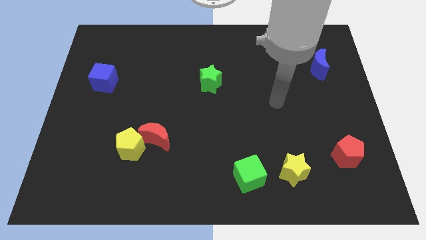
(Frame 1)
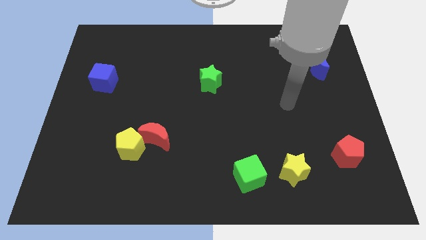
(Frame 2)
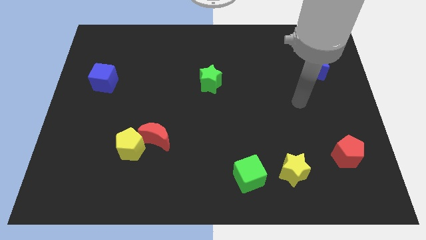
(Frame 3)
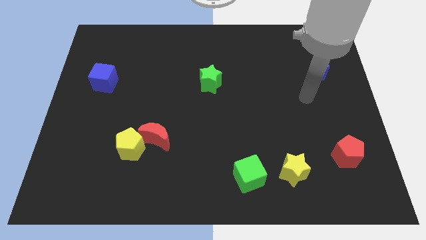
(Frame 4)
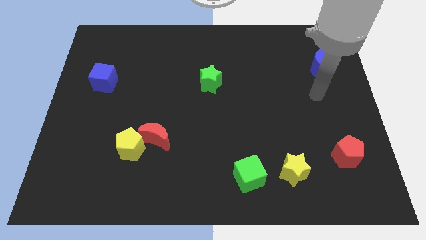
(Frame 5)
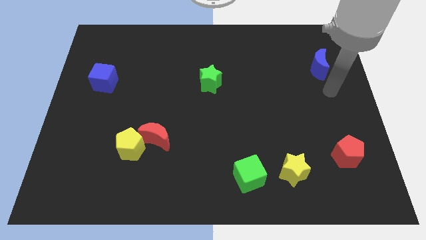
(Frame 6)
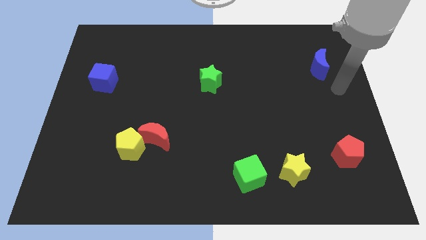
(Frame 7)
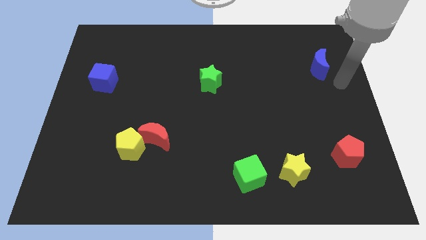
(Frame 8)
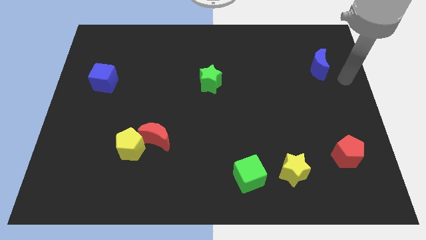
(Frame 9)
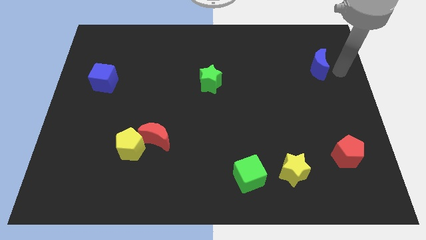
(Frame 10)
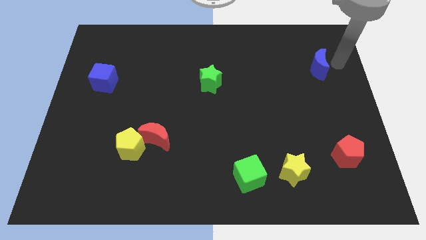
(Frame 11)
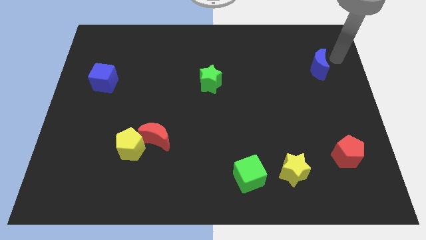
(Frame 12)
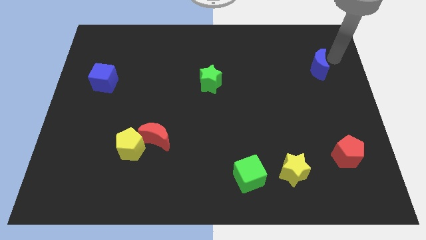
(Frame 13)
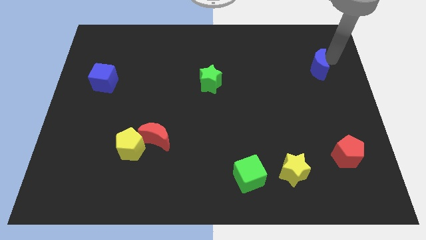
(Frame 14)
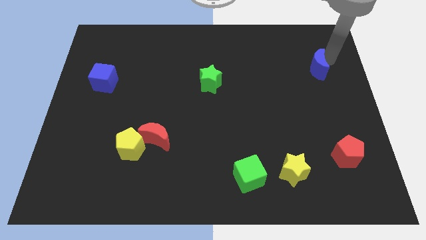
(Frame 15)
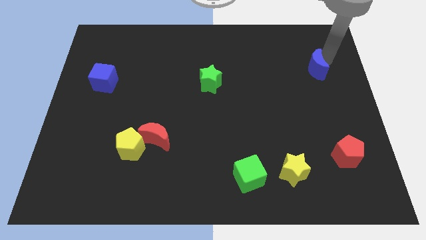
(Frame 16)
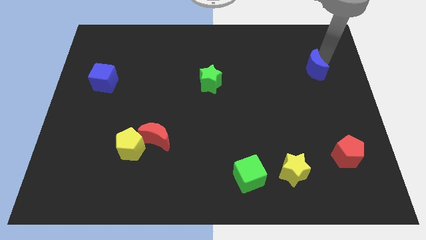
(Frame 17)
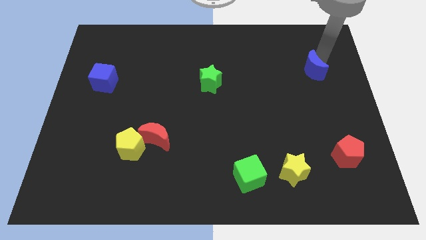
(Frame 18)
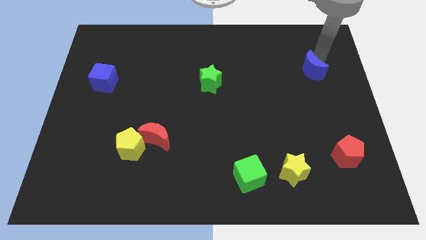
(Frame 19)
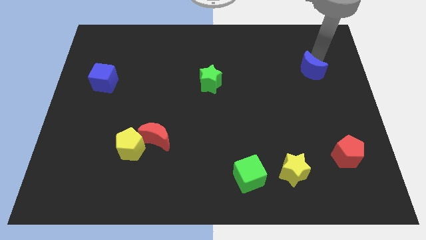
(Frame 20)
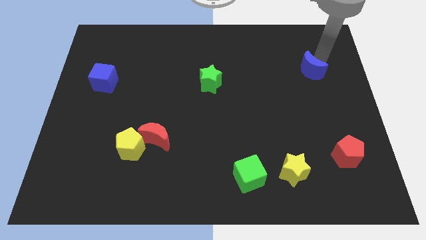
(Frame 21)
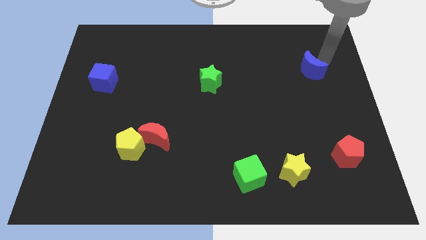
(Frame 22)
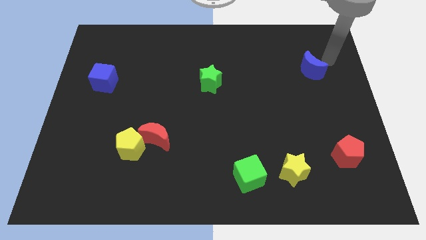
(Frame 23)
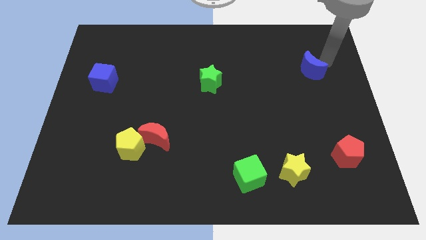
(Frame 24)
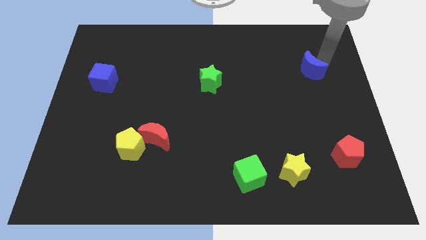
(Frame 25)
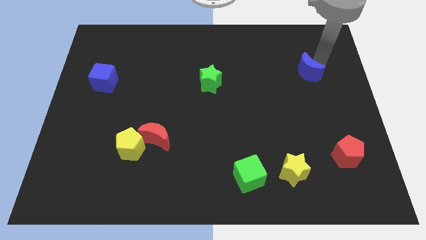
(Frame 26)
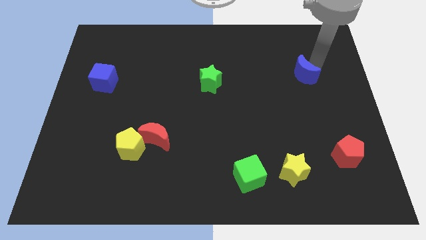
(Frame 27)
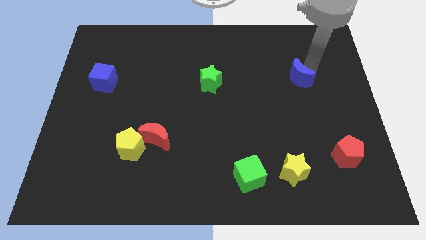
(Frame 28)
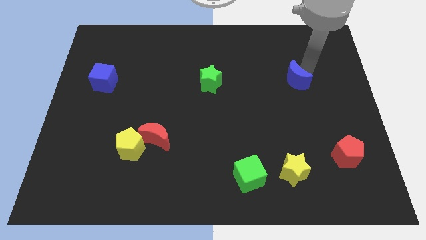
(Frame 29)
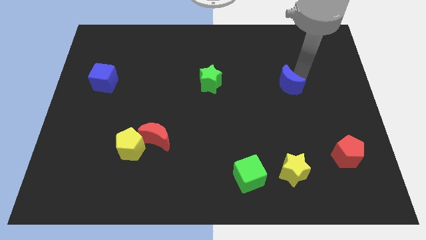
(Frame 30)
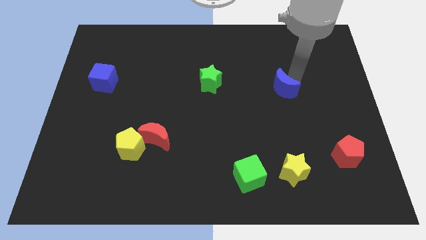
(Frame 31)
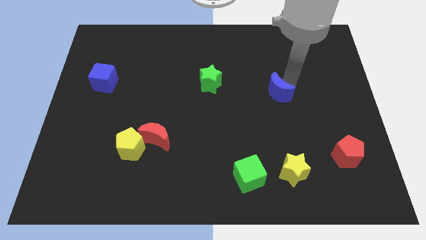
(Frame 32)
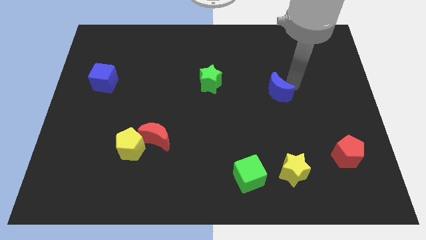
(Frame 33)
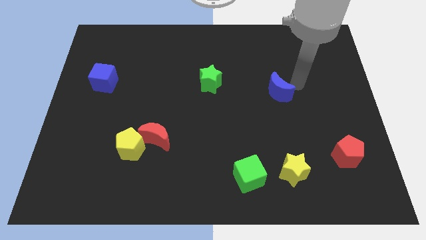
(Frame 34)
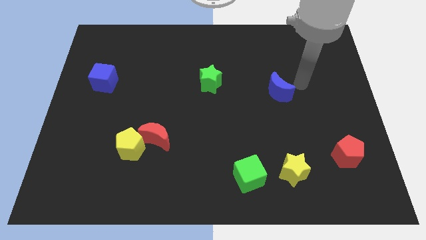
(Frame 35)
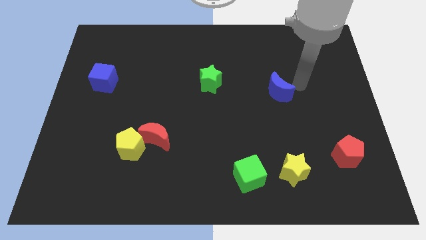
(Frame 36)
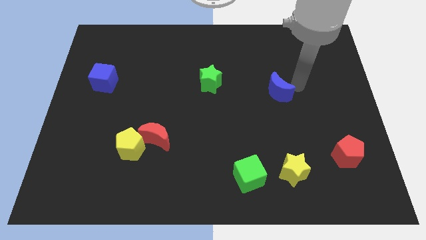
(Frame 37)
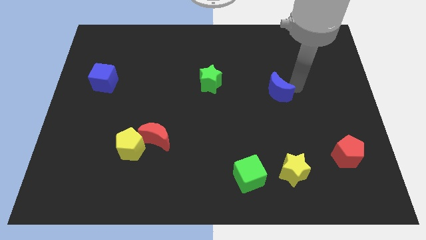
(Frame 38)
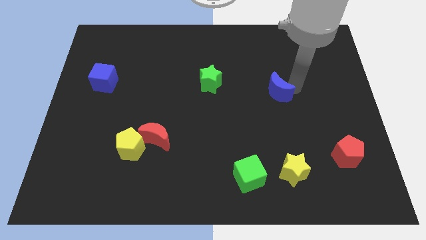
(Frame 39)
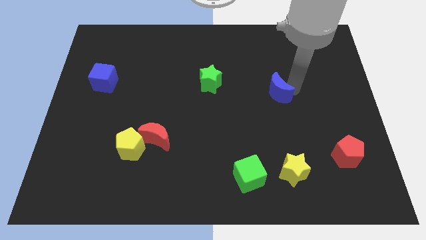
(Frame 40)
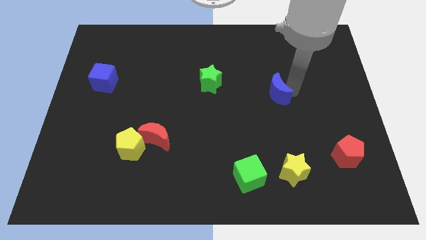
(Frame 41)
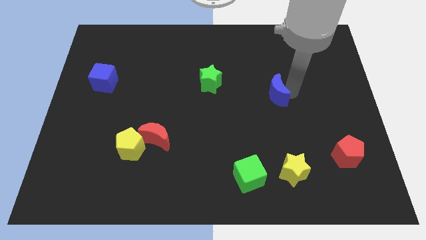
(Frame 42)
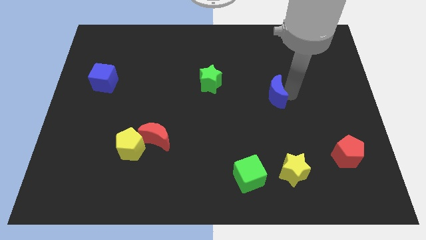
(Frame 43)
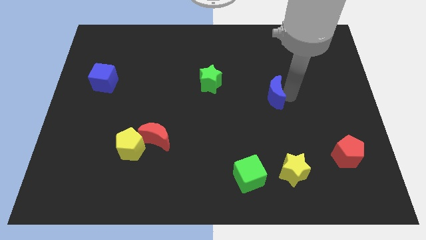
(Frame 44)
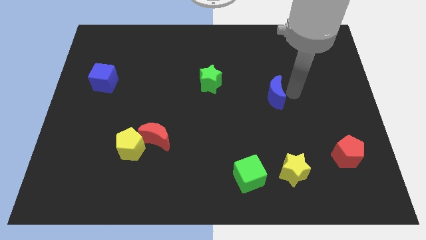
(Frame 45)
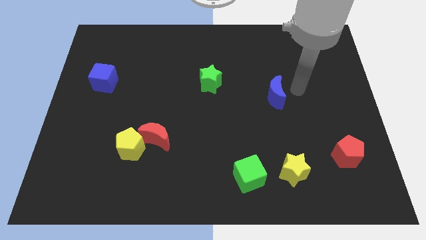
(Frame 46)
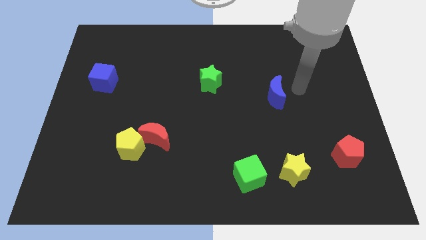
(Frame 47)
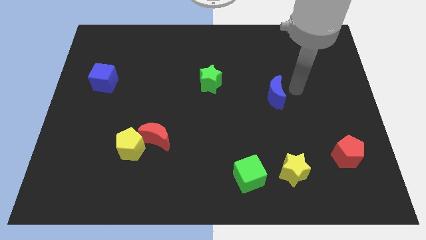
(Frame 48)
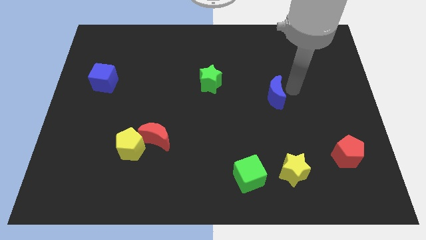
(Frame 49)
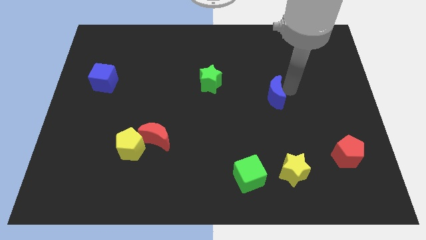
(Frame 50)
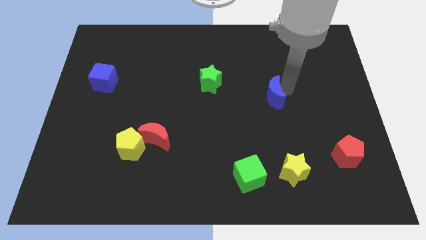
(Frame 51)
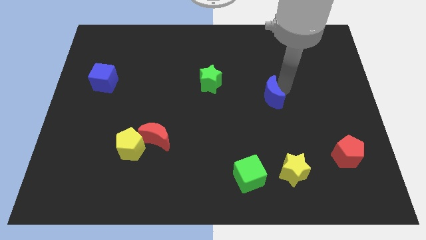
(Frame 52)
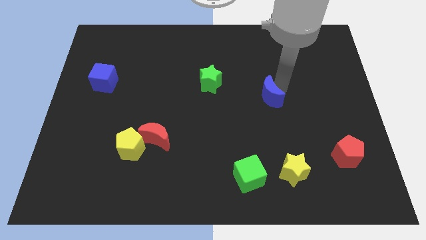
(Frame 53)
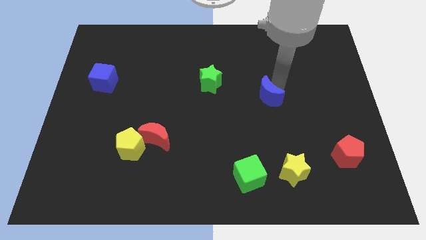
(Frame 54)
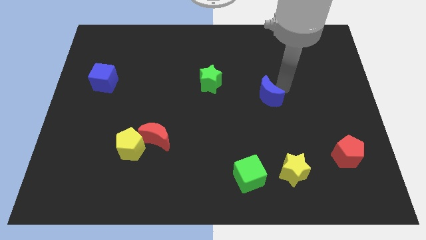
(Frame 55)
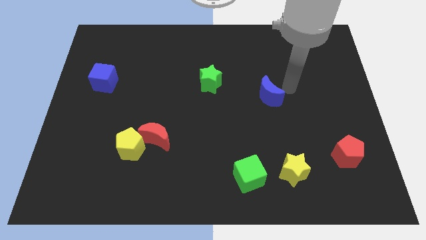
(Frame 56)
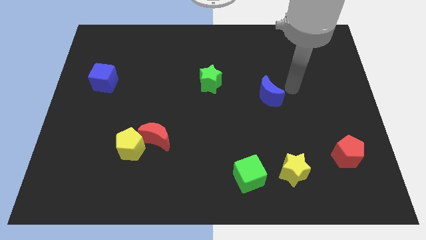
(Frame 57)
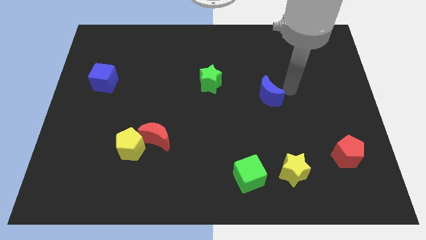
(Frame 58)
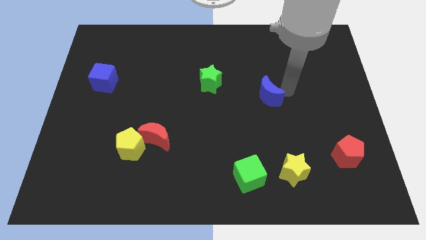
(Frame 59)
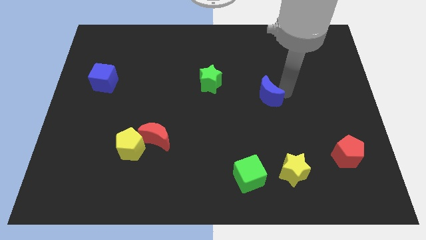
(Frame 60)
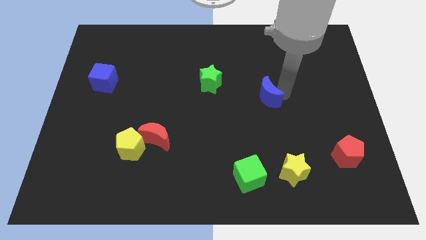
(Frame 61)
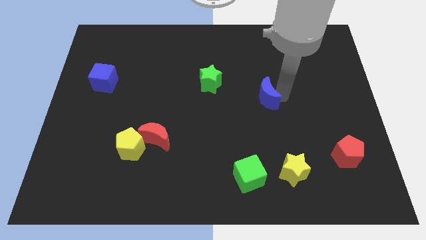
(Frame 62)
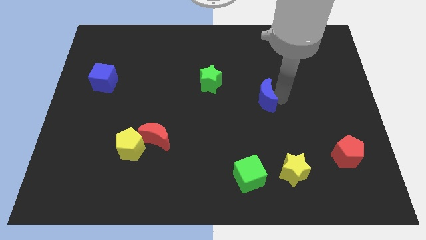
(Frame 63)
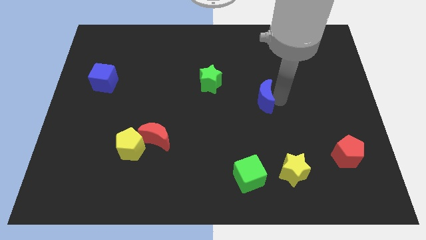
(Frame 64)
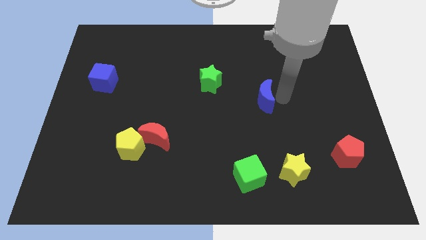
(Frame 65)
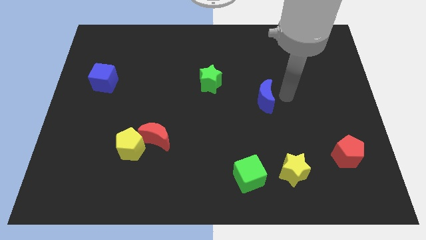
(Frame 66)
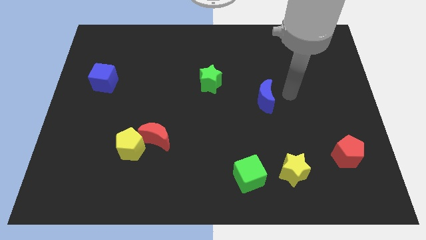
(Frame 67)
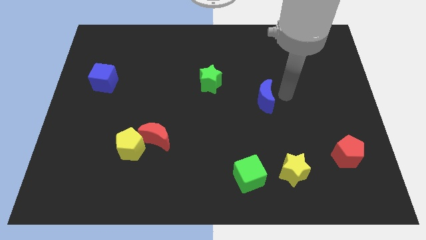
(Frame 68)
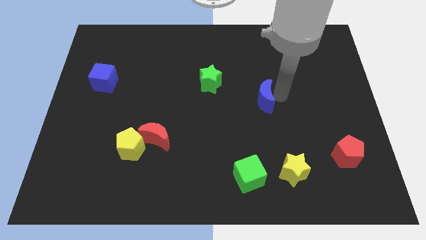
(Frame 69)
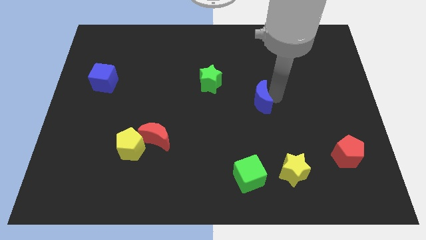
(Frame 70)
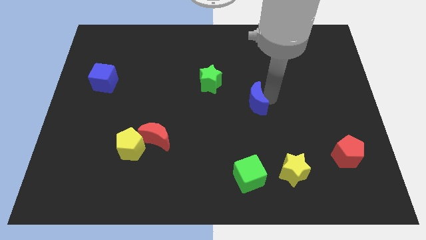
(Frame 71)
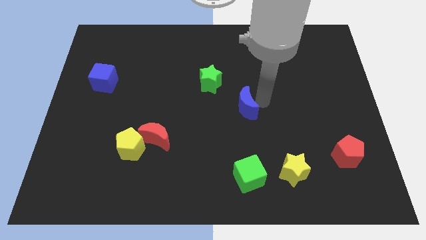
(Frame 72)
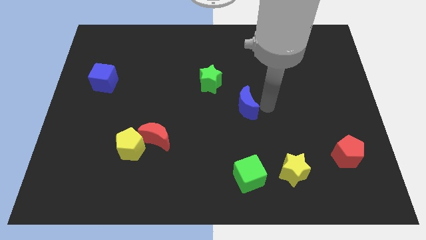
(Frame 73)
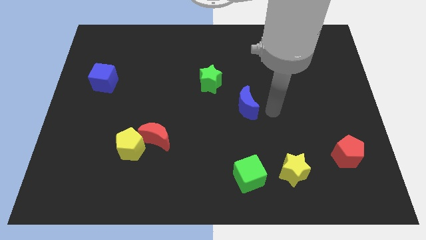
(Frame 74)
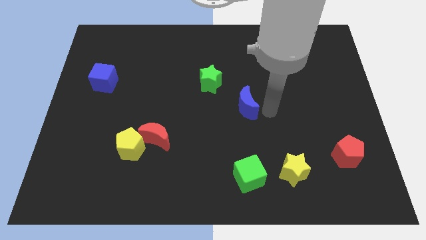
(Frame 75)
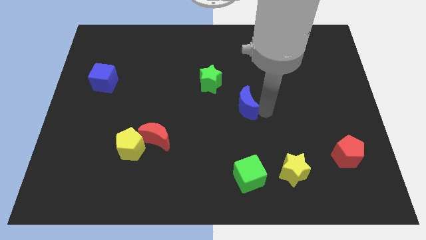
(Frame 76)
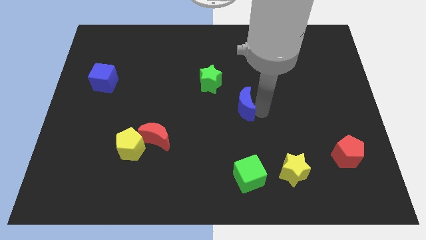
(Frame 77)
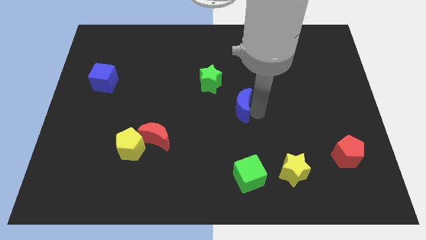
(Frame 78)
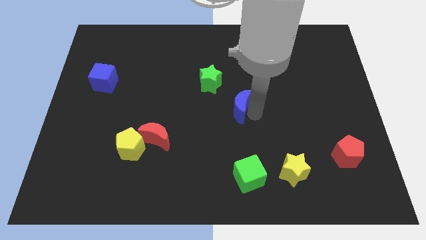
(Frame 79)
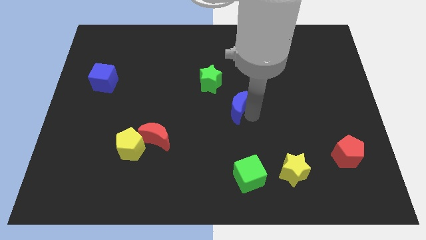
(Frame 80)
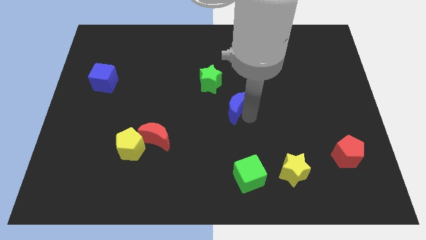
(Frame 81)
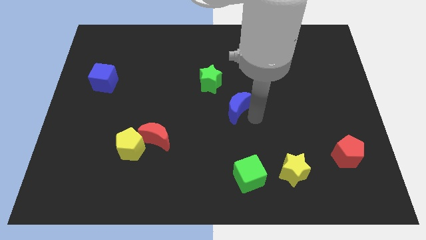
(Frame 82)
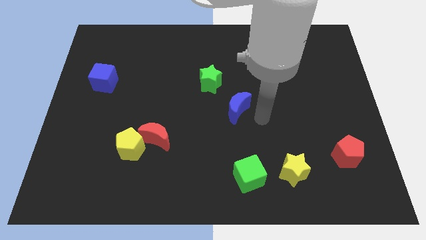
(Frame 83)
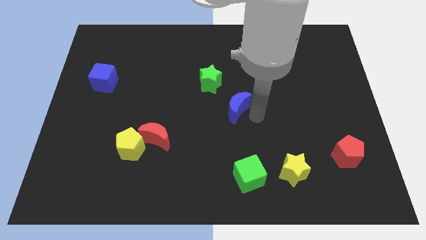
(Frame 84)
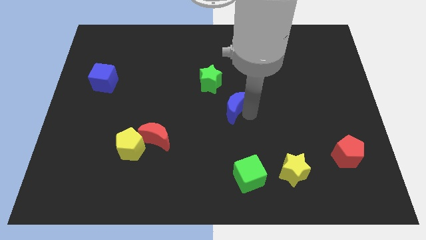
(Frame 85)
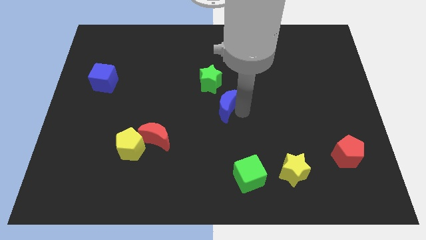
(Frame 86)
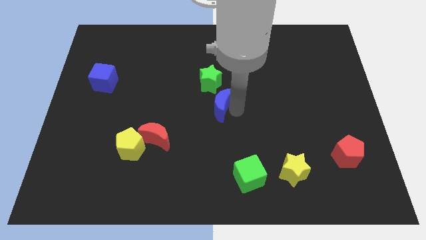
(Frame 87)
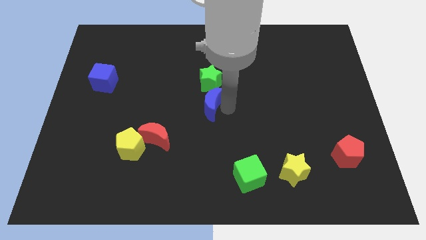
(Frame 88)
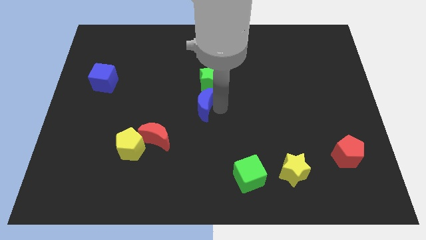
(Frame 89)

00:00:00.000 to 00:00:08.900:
move the blue moon to the bottom left side of the green star
